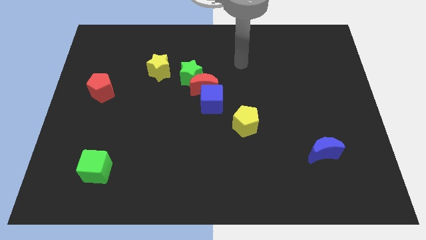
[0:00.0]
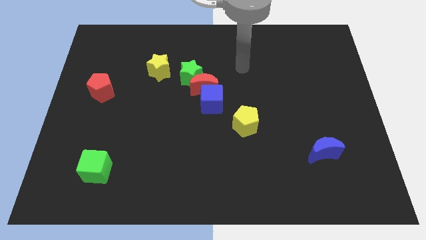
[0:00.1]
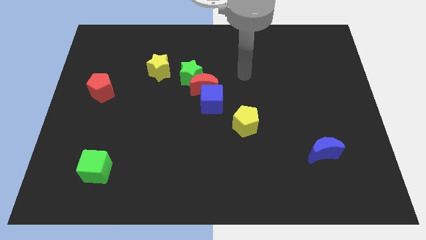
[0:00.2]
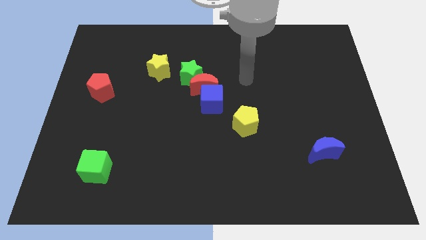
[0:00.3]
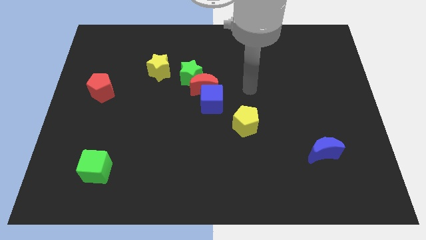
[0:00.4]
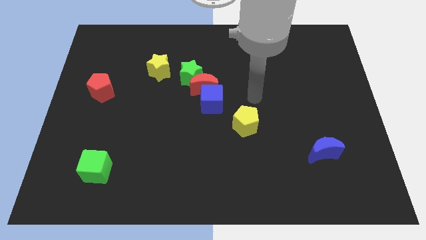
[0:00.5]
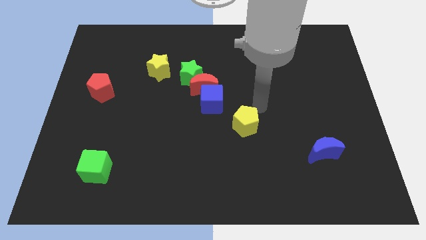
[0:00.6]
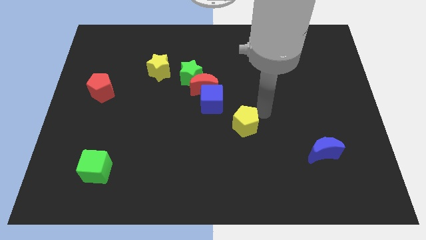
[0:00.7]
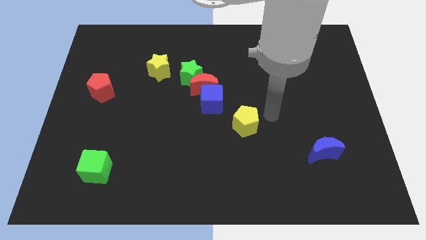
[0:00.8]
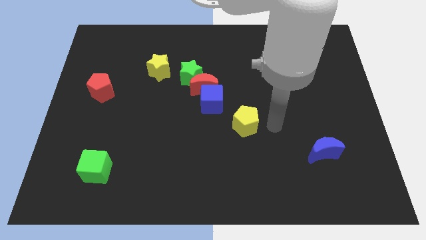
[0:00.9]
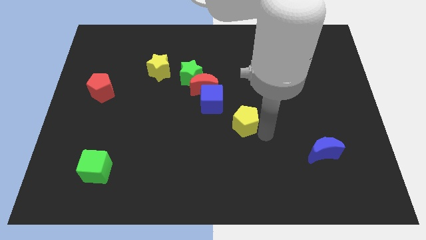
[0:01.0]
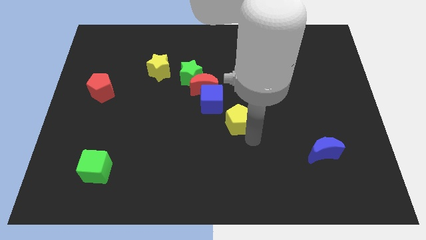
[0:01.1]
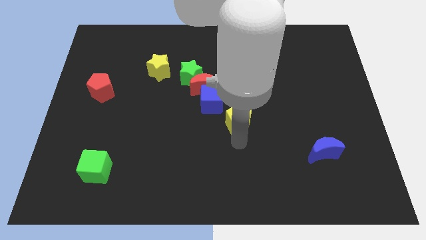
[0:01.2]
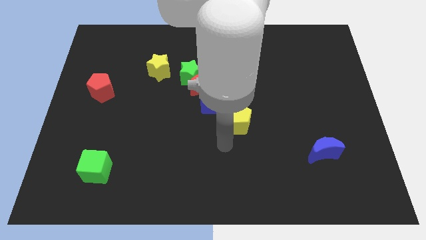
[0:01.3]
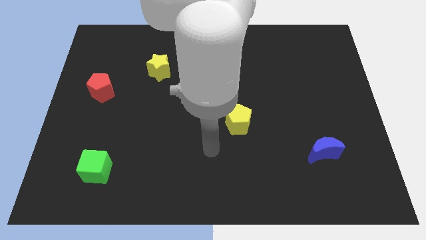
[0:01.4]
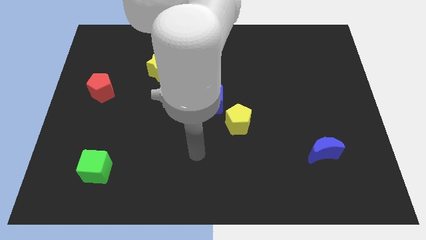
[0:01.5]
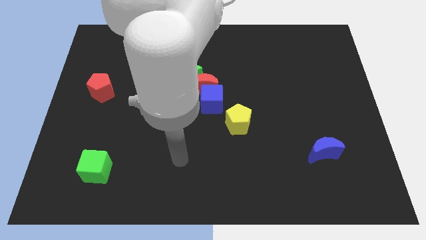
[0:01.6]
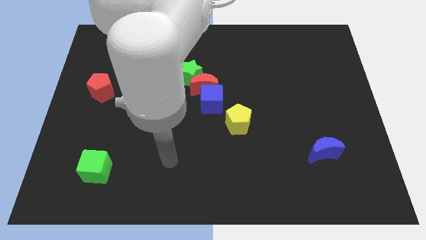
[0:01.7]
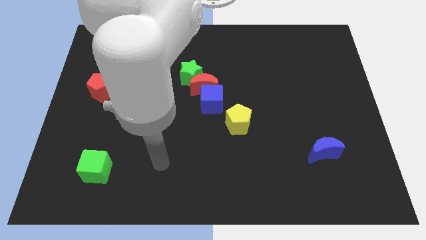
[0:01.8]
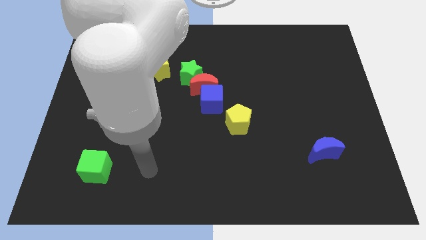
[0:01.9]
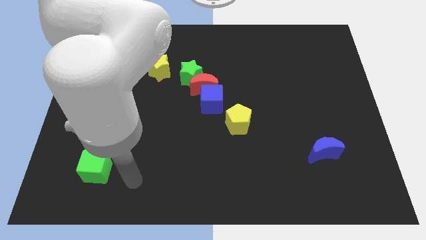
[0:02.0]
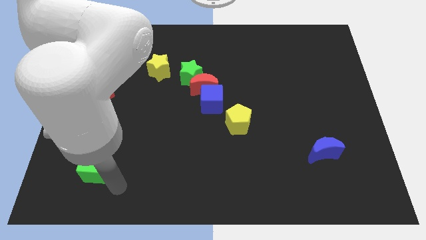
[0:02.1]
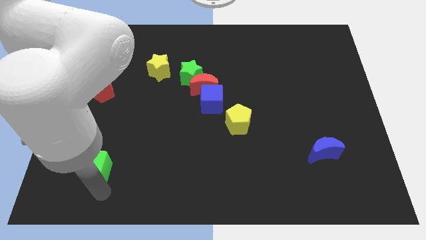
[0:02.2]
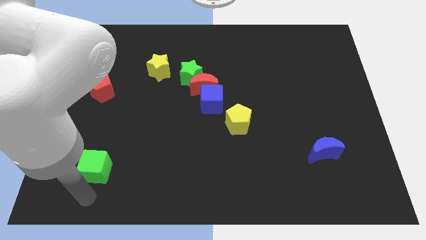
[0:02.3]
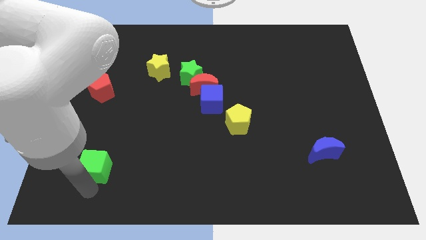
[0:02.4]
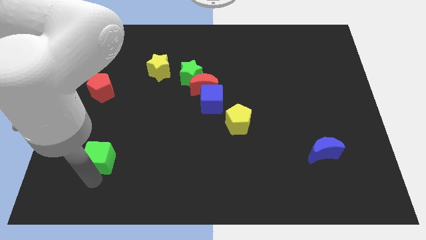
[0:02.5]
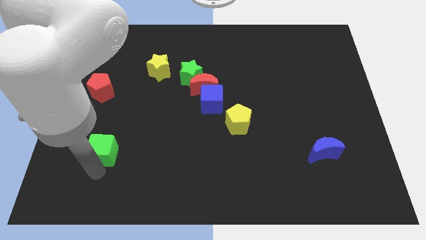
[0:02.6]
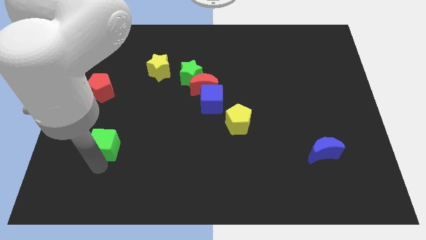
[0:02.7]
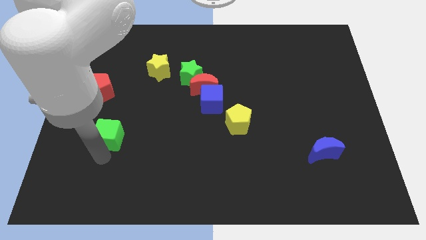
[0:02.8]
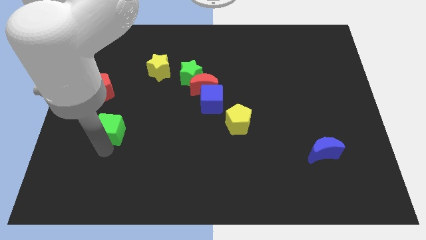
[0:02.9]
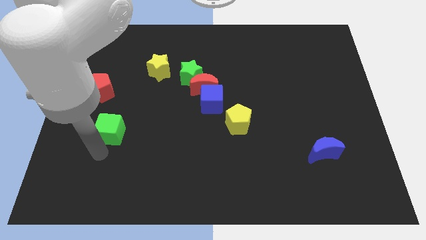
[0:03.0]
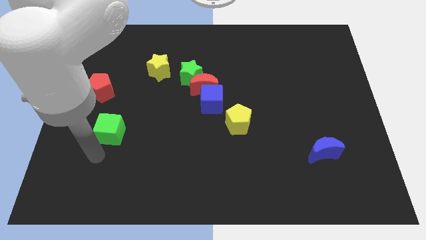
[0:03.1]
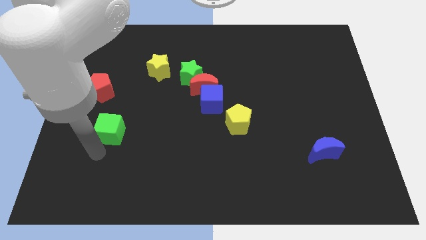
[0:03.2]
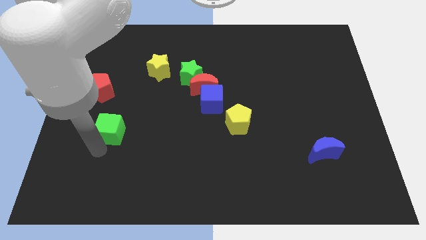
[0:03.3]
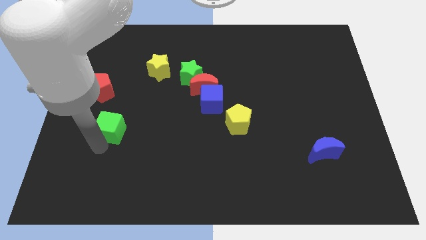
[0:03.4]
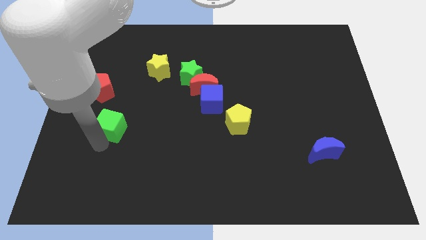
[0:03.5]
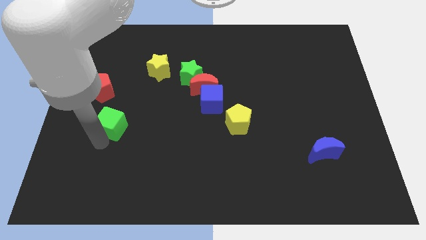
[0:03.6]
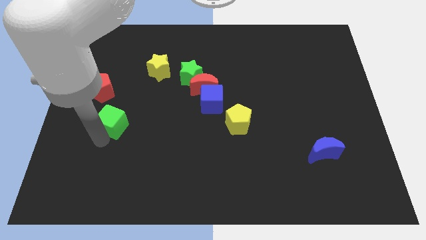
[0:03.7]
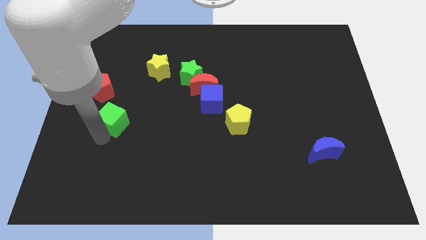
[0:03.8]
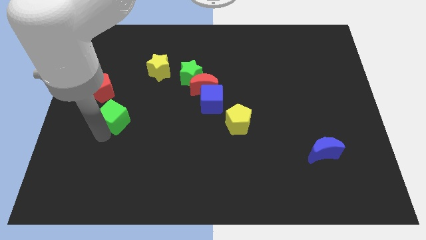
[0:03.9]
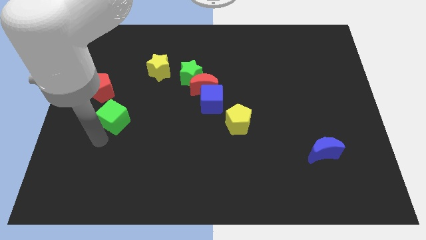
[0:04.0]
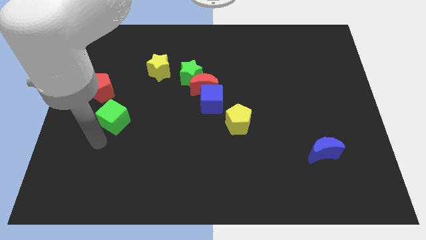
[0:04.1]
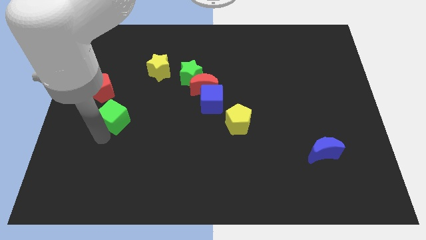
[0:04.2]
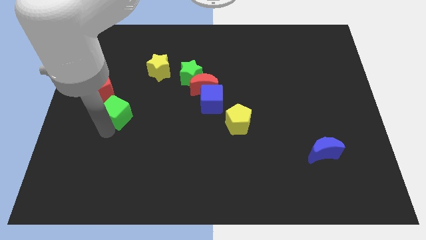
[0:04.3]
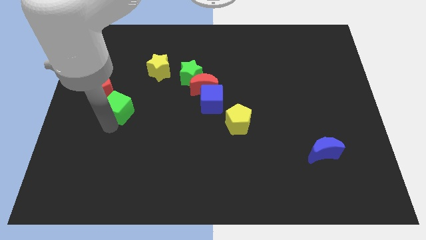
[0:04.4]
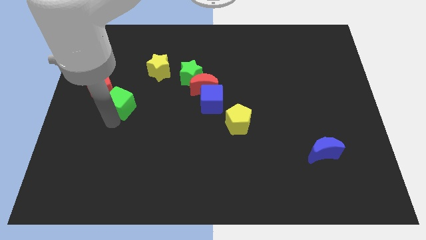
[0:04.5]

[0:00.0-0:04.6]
put the green cube just right of the red pentagon

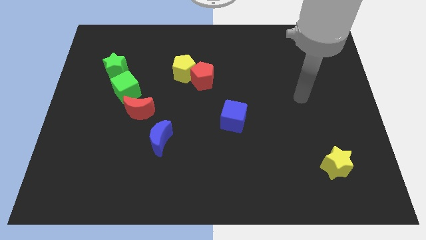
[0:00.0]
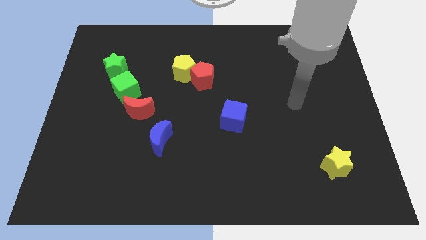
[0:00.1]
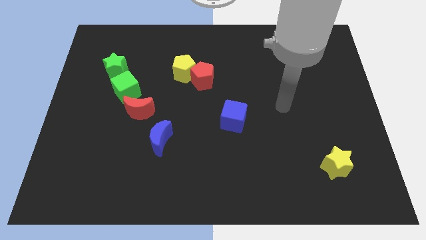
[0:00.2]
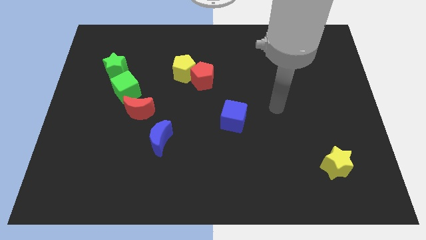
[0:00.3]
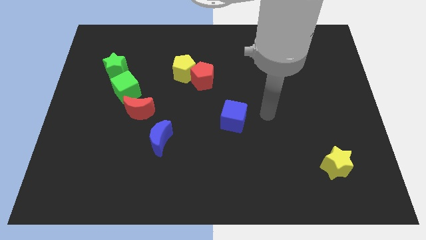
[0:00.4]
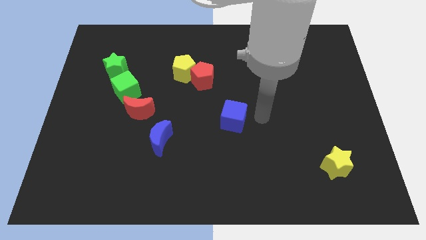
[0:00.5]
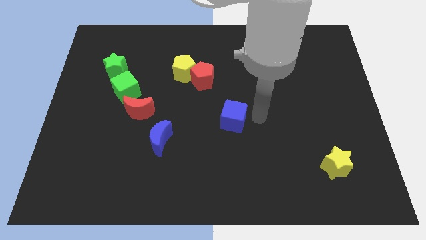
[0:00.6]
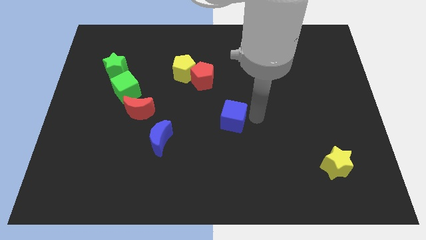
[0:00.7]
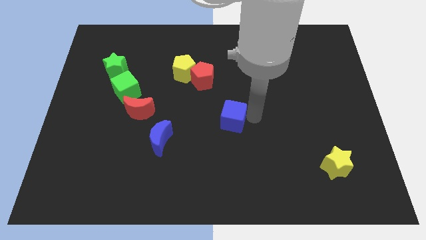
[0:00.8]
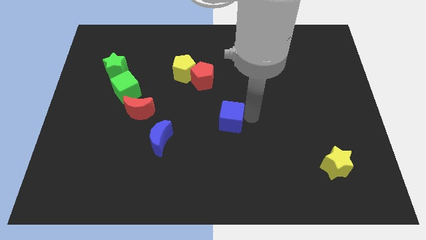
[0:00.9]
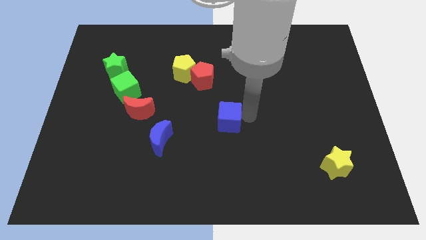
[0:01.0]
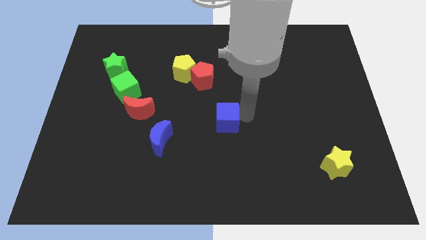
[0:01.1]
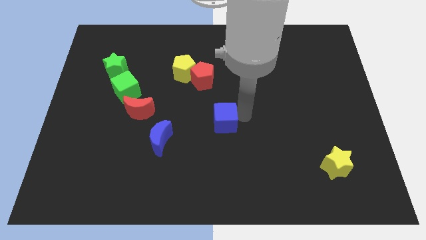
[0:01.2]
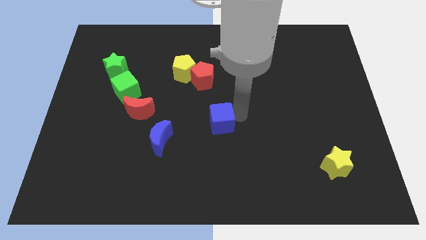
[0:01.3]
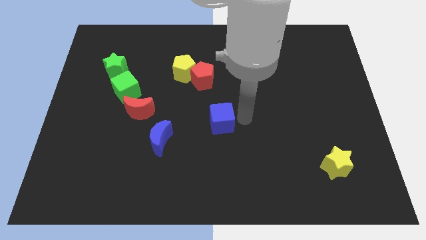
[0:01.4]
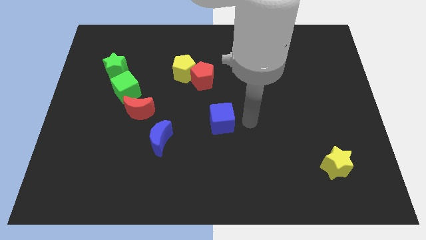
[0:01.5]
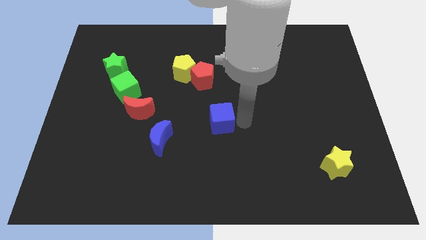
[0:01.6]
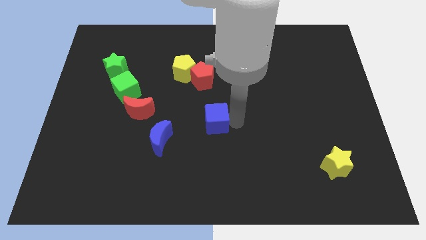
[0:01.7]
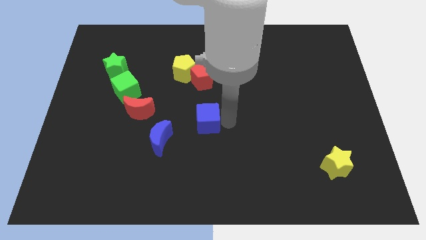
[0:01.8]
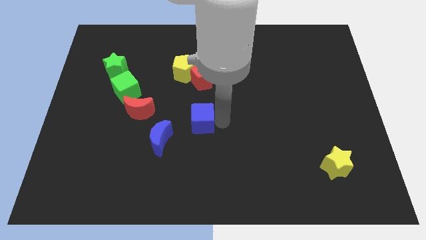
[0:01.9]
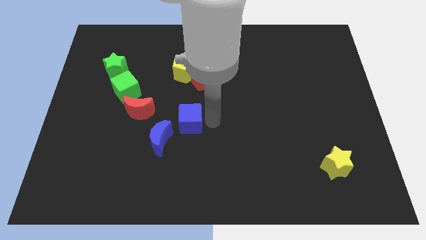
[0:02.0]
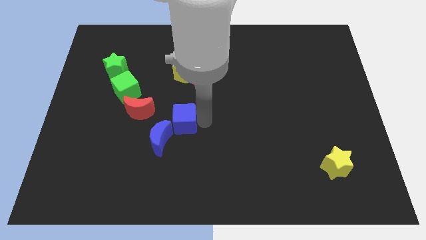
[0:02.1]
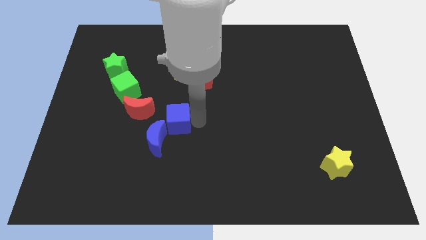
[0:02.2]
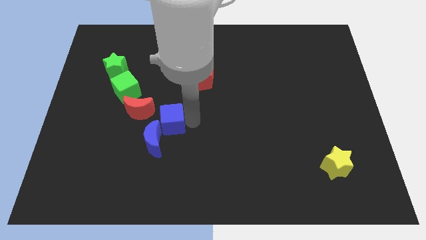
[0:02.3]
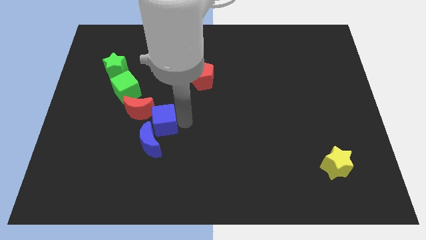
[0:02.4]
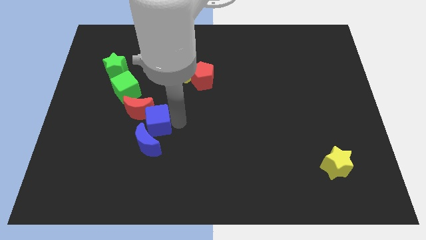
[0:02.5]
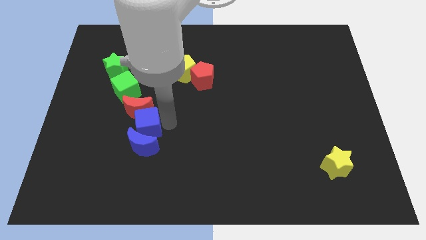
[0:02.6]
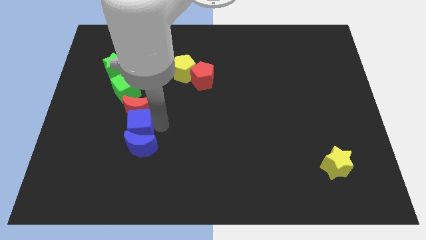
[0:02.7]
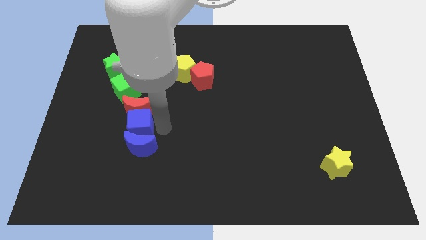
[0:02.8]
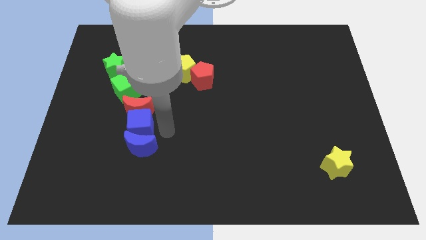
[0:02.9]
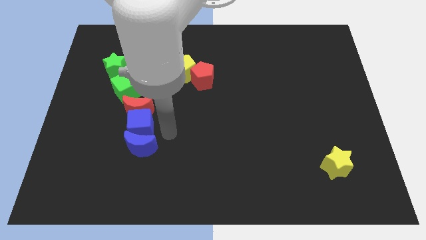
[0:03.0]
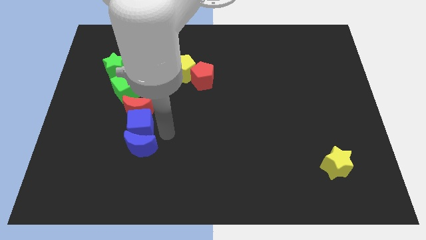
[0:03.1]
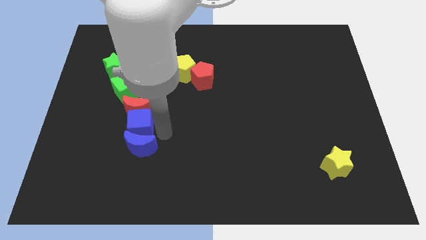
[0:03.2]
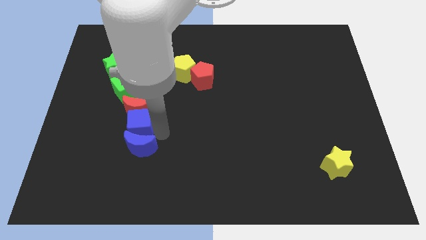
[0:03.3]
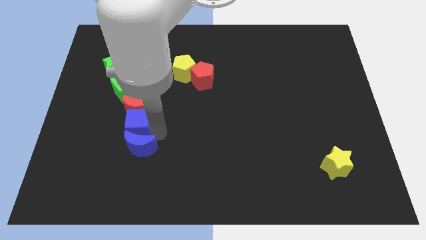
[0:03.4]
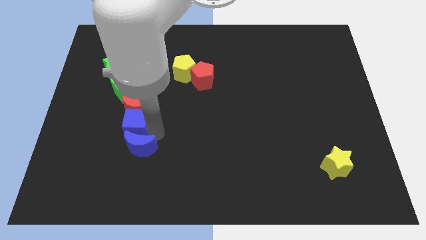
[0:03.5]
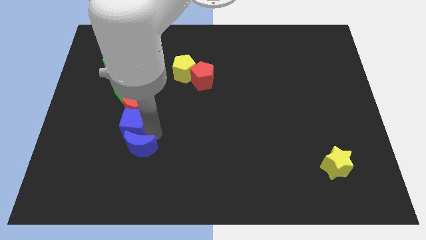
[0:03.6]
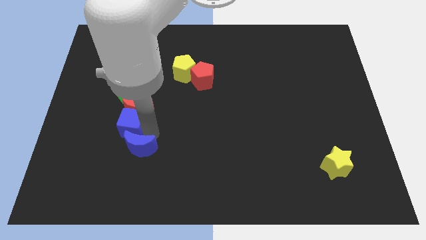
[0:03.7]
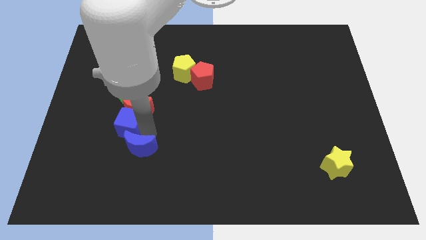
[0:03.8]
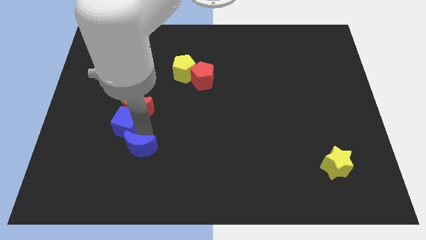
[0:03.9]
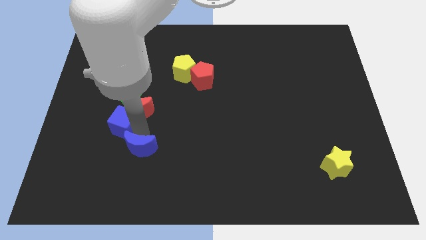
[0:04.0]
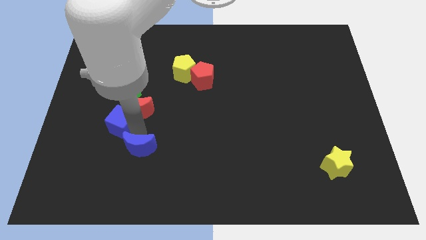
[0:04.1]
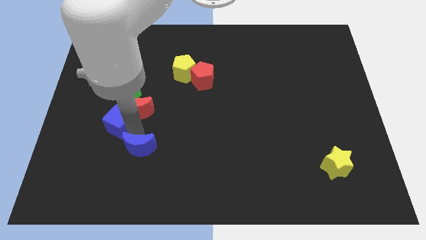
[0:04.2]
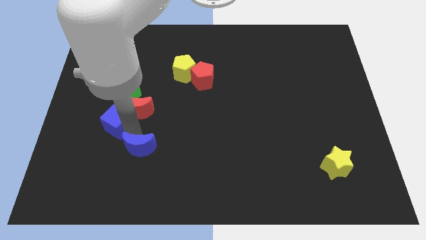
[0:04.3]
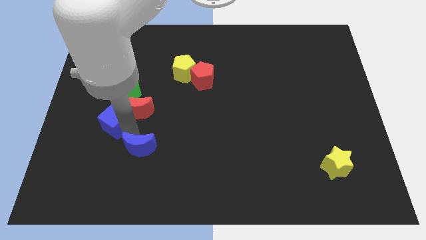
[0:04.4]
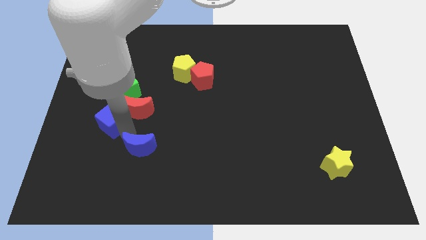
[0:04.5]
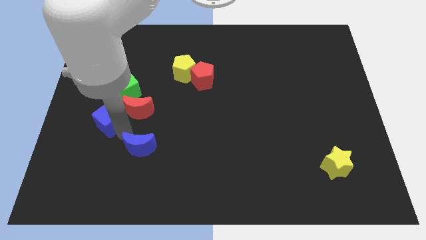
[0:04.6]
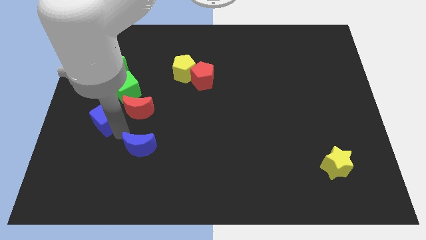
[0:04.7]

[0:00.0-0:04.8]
put the blue cube diagonally down and to the left of the green cube
